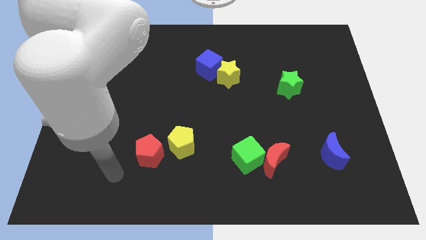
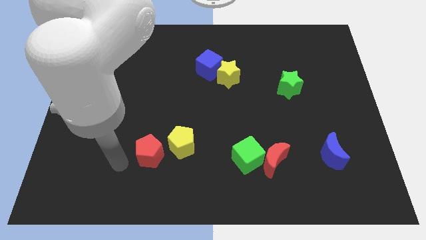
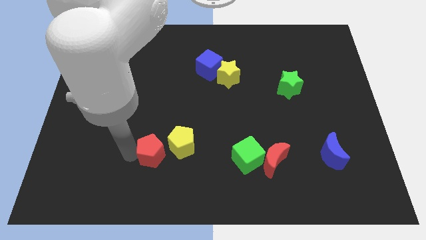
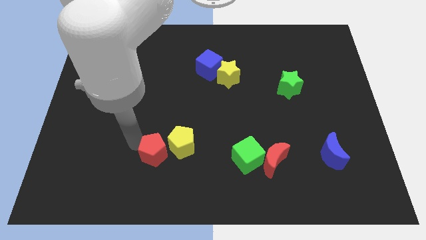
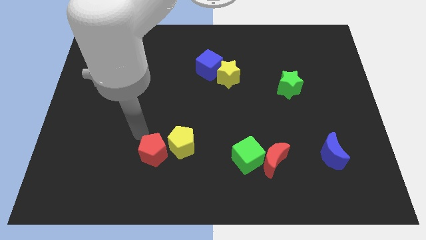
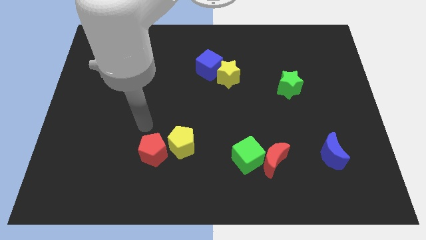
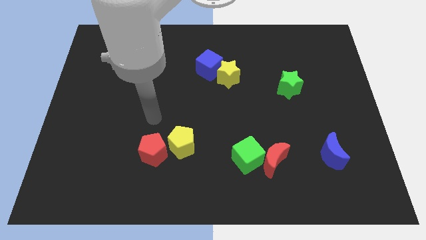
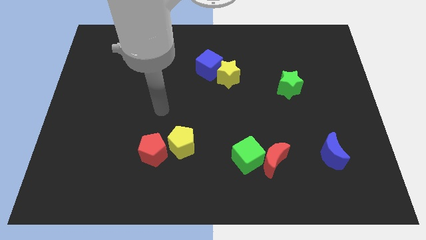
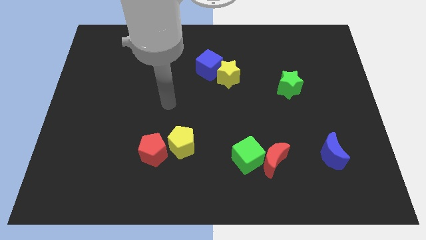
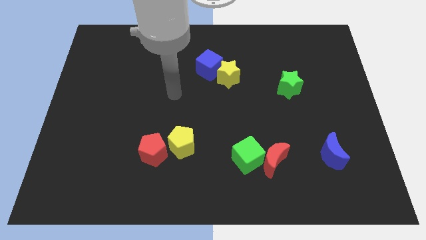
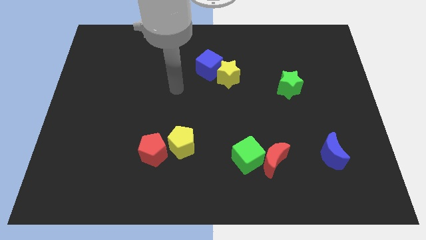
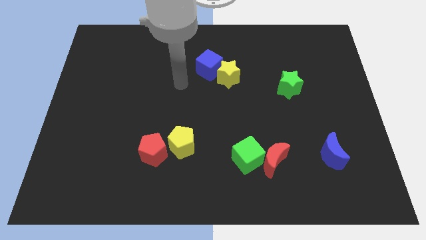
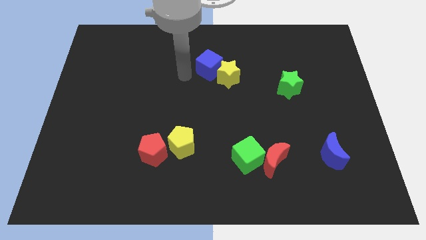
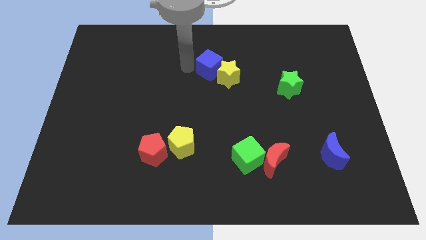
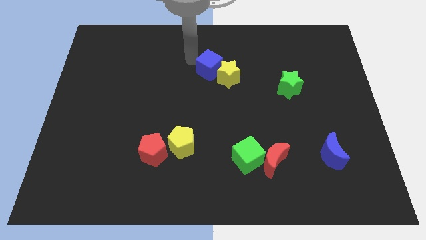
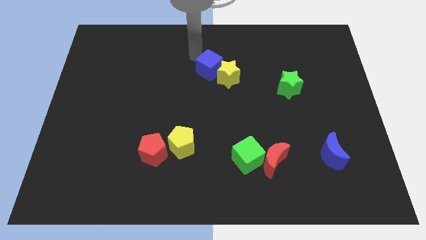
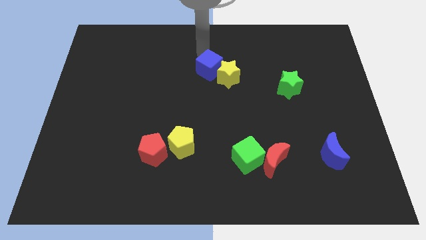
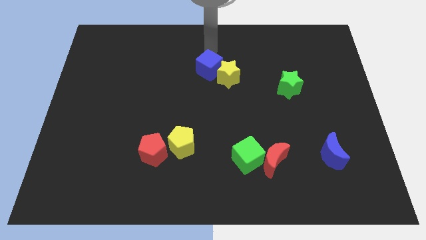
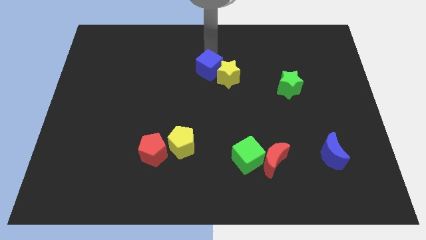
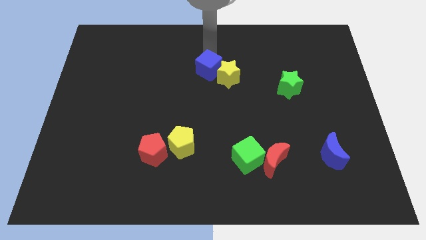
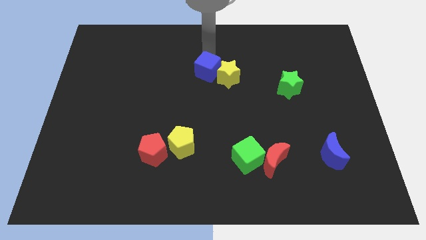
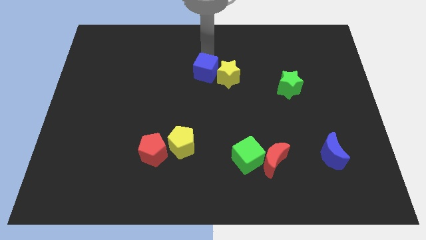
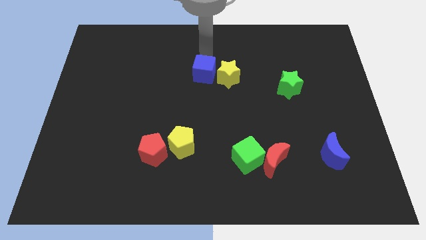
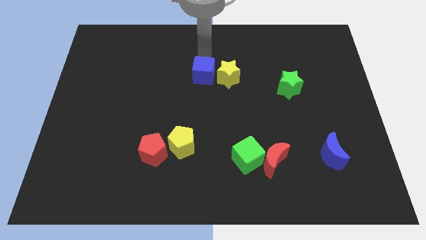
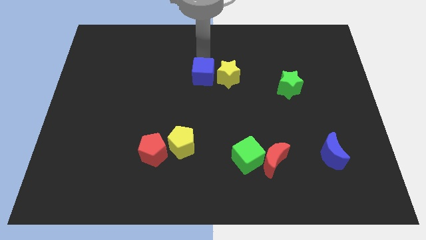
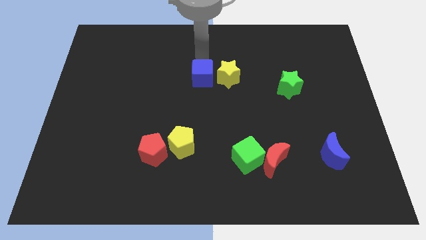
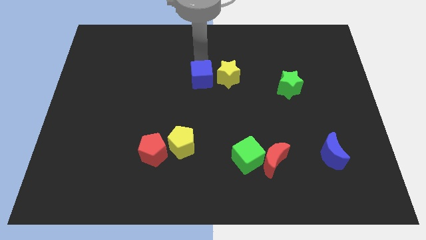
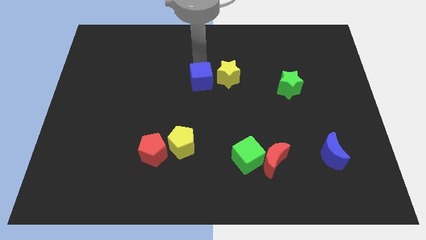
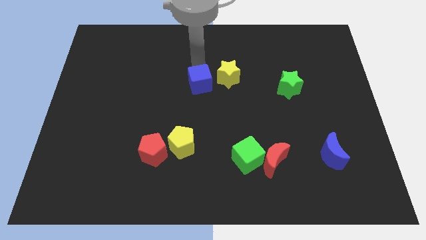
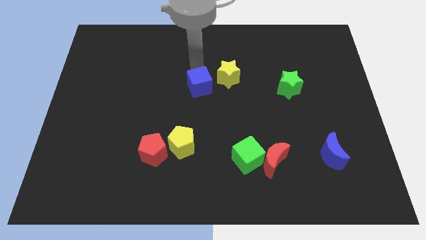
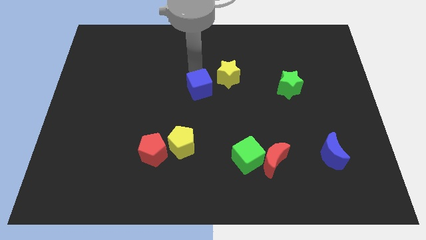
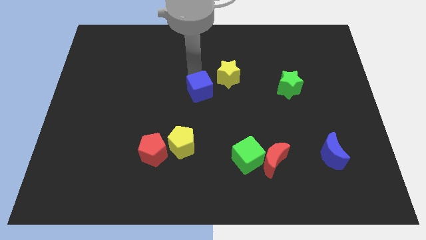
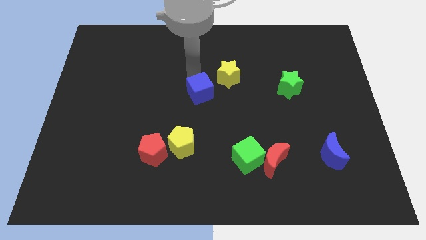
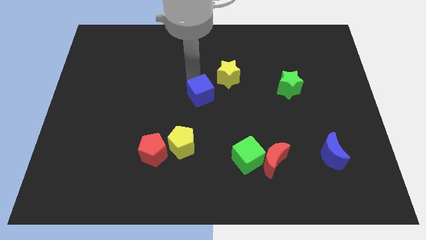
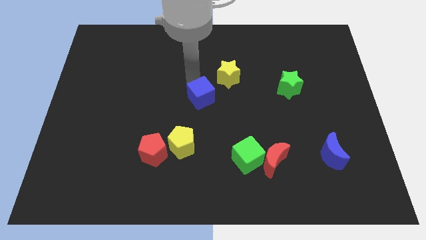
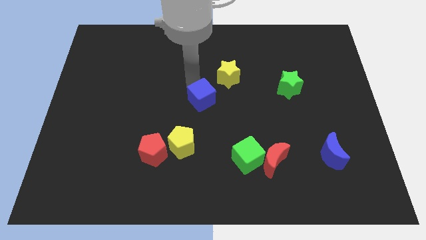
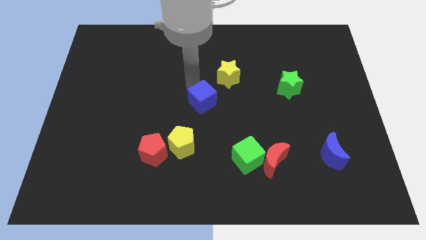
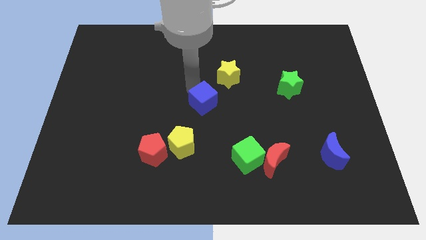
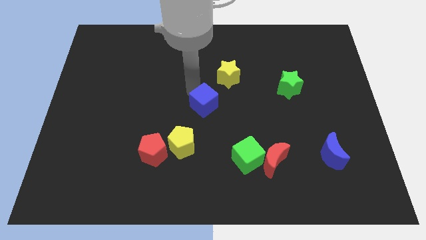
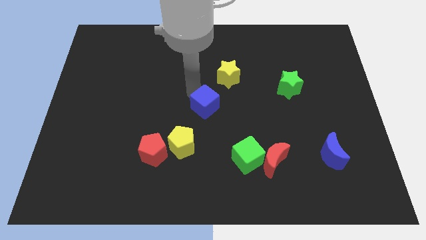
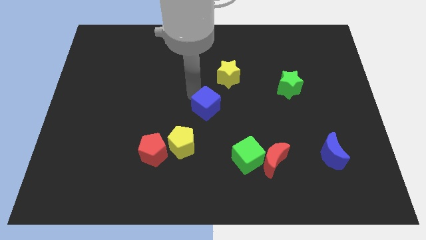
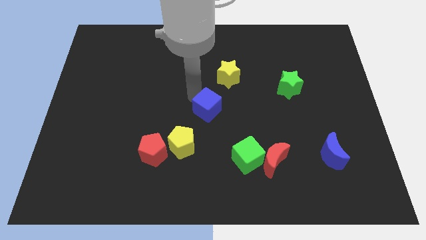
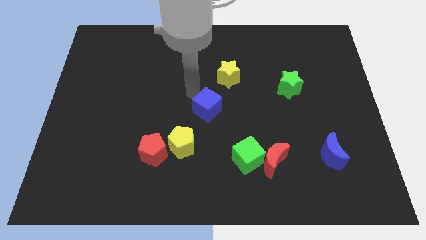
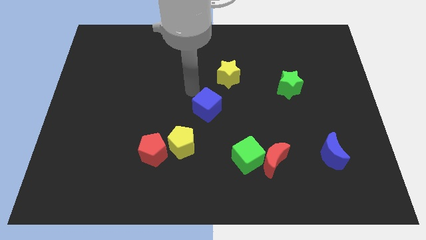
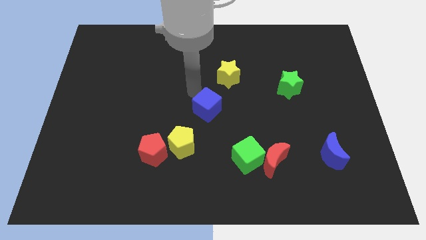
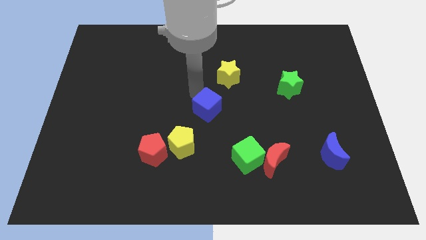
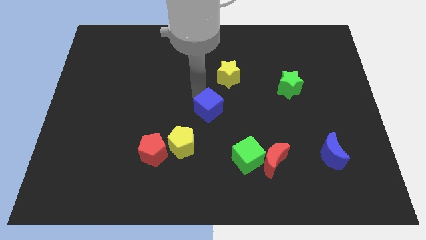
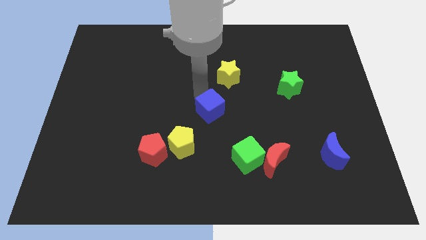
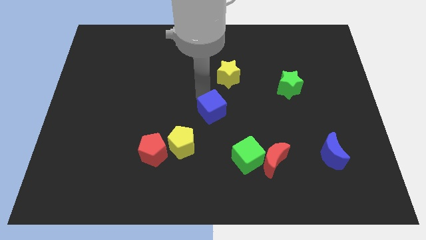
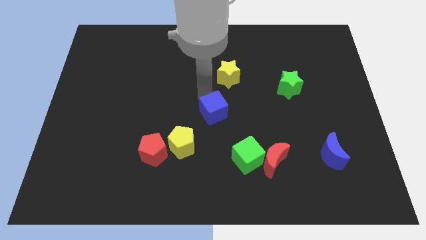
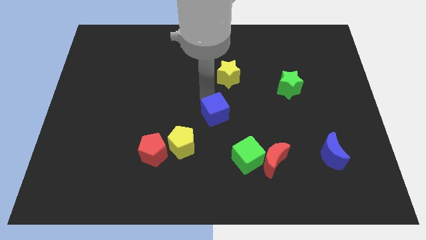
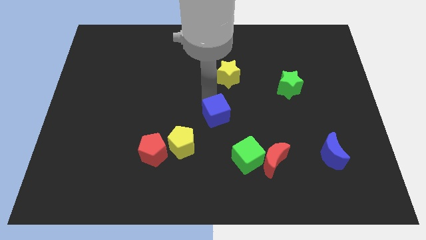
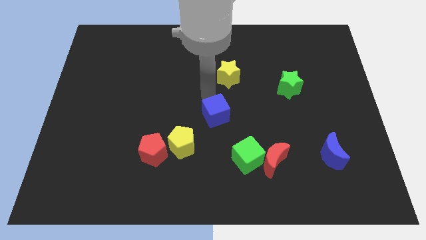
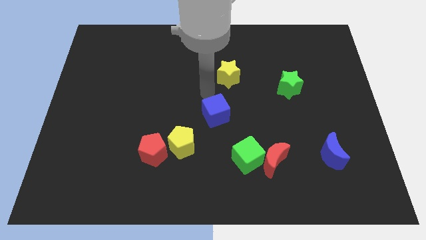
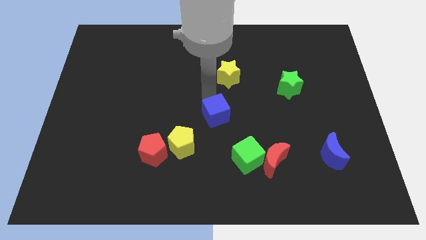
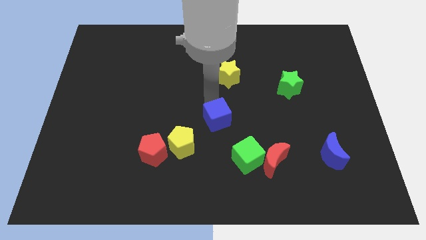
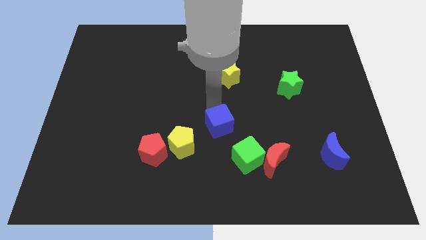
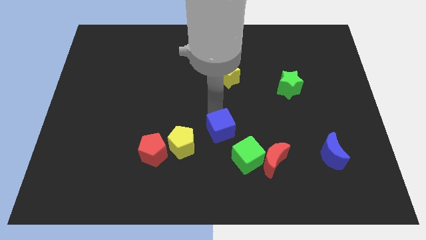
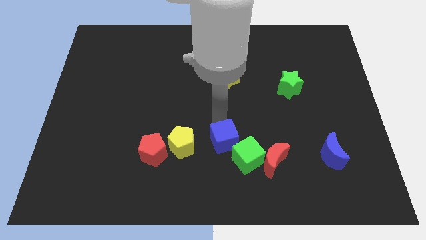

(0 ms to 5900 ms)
move the blue cube left of the green cube

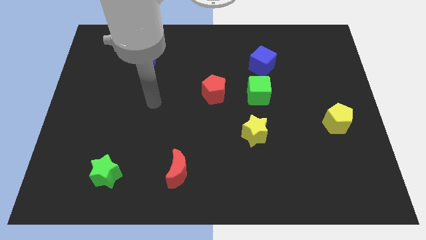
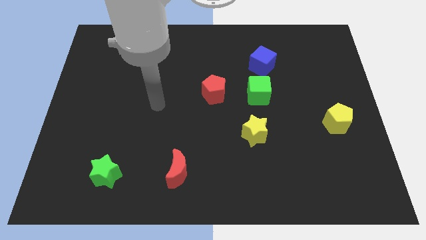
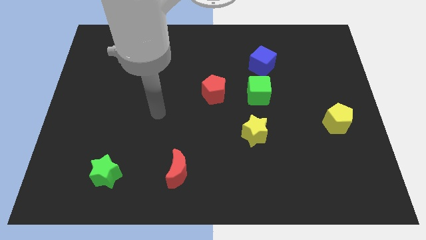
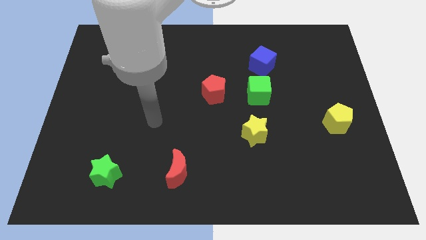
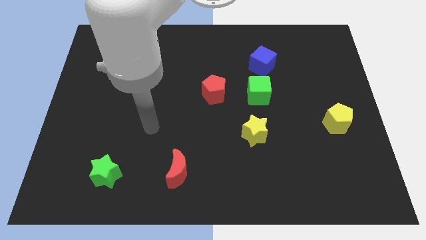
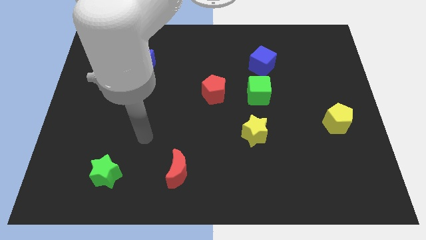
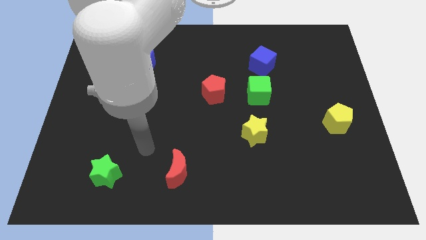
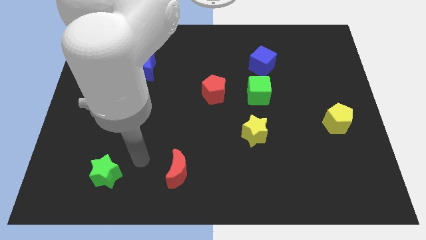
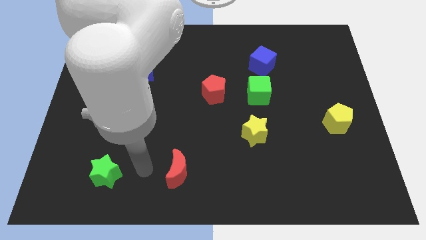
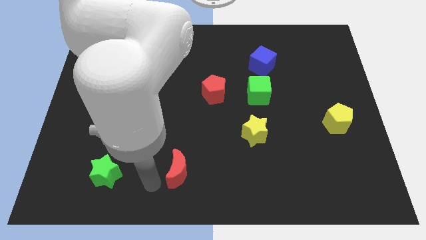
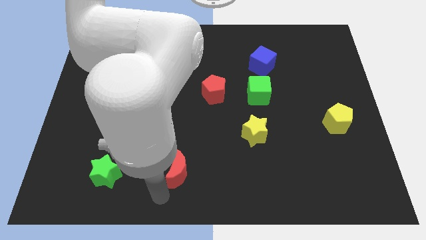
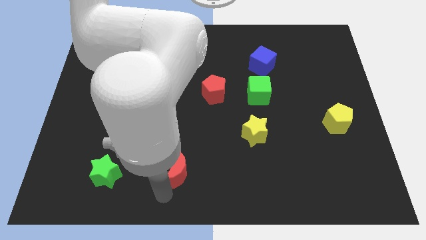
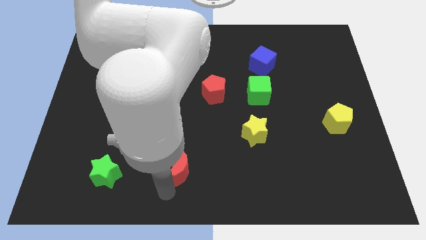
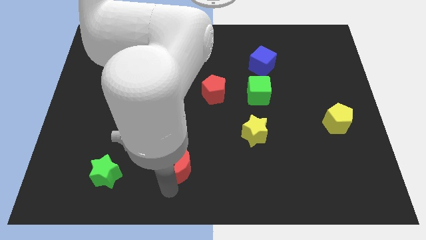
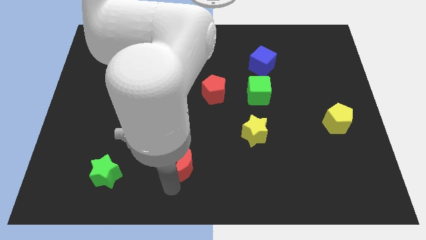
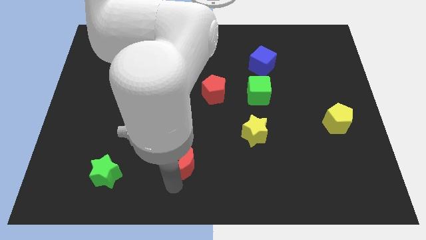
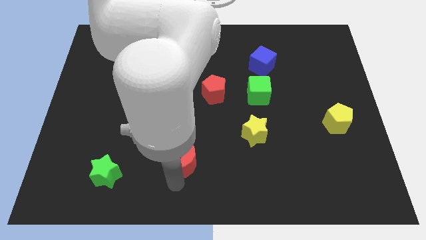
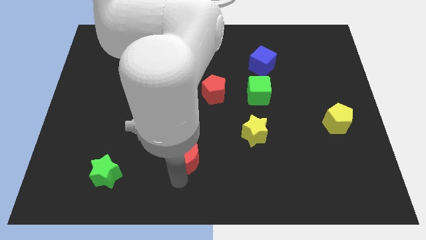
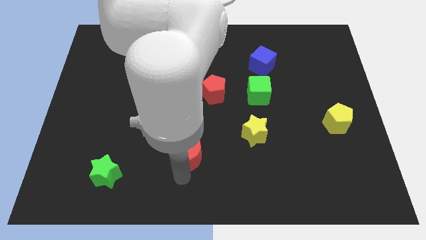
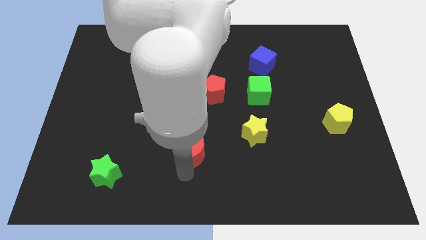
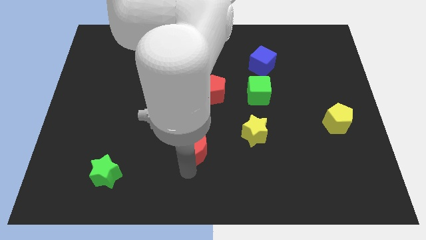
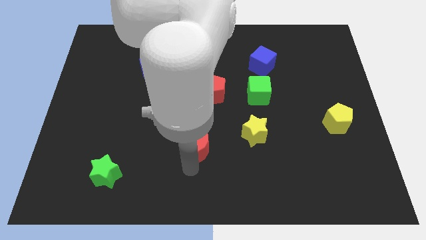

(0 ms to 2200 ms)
move the red moon to the bottom side of the red pentagon
